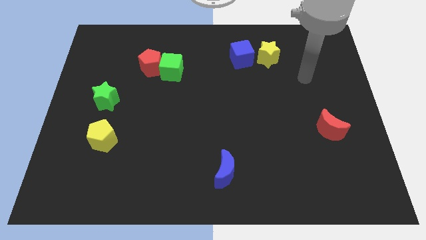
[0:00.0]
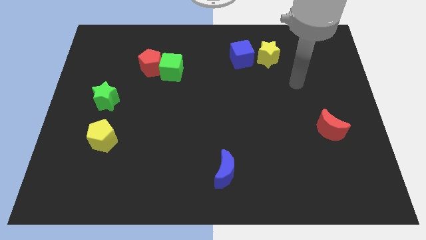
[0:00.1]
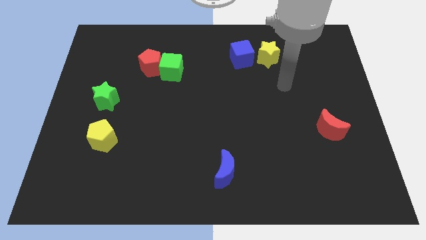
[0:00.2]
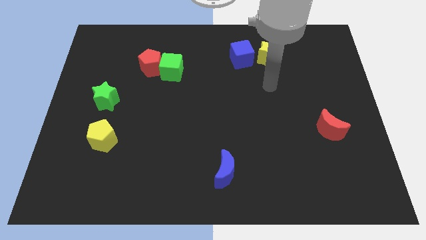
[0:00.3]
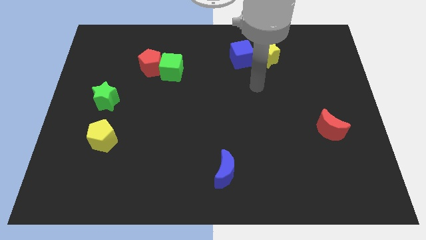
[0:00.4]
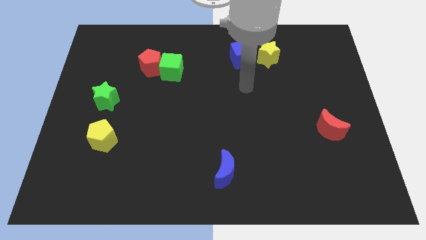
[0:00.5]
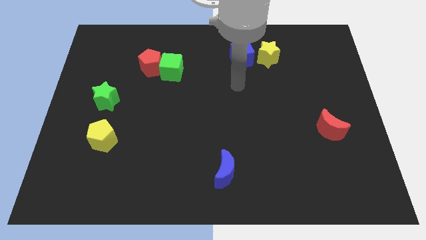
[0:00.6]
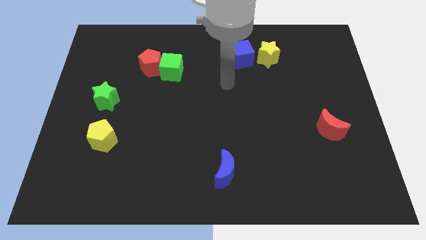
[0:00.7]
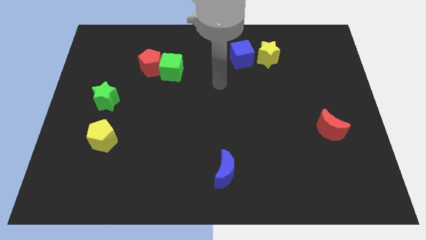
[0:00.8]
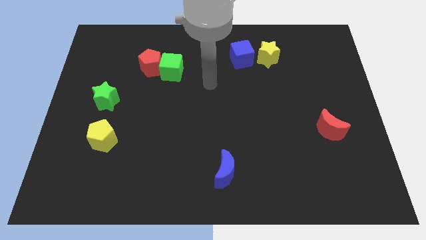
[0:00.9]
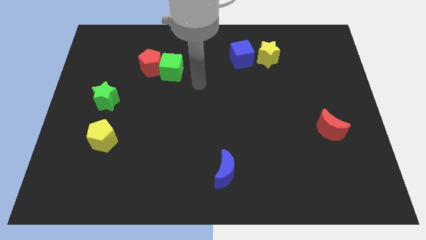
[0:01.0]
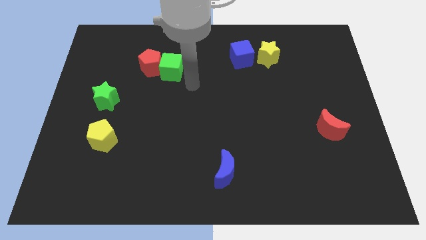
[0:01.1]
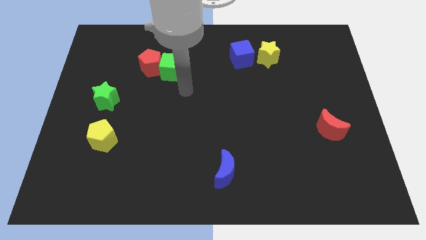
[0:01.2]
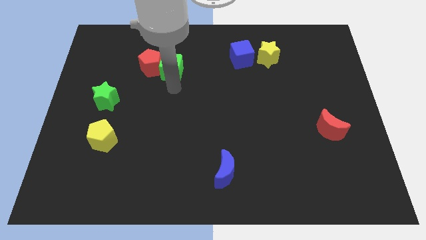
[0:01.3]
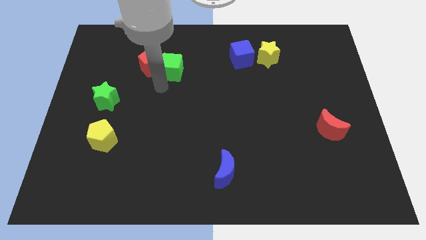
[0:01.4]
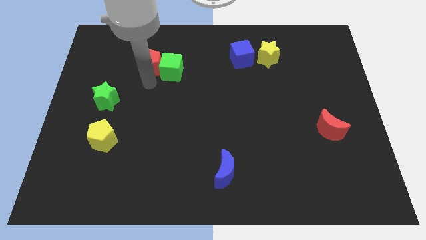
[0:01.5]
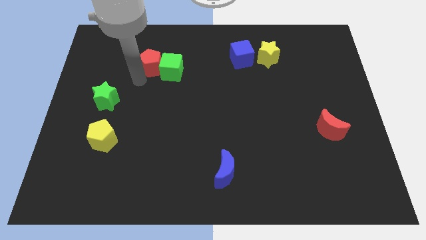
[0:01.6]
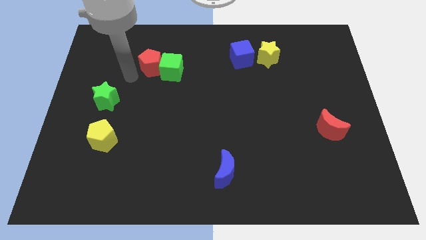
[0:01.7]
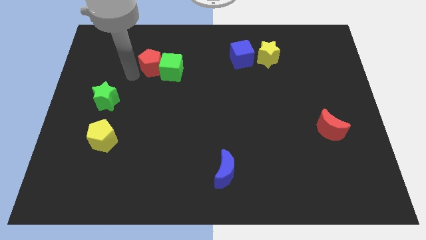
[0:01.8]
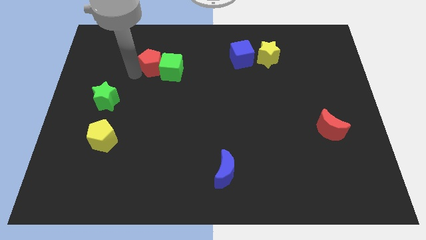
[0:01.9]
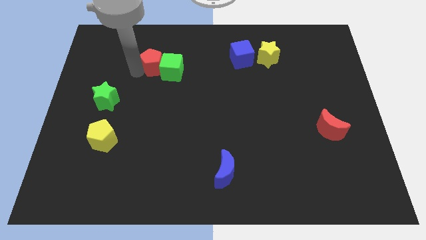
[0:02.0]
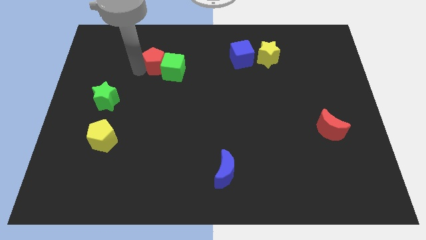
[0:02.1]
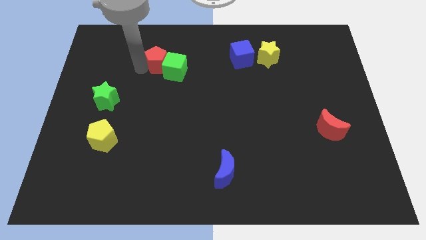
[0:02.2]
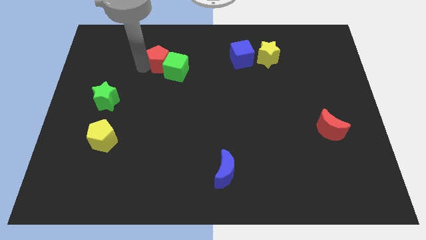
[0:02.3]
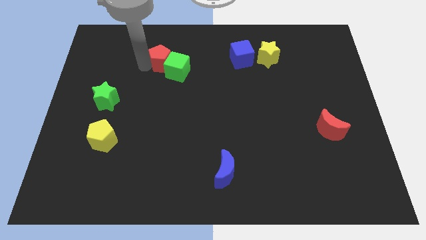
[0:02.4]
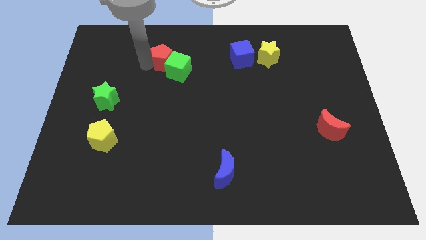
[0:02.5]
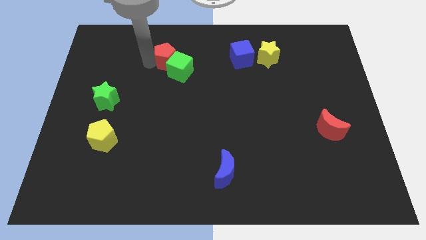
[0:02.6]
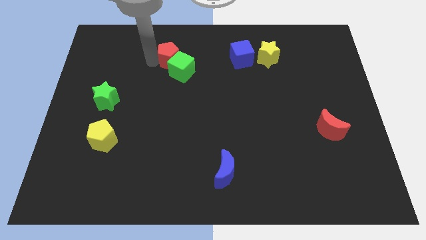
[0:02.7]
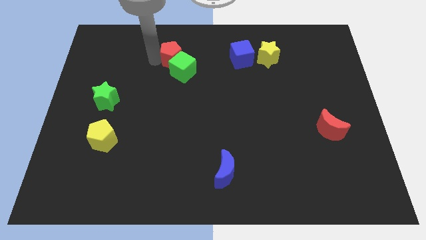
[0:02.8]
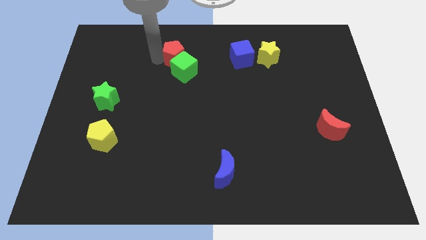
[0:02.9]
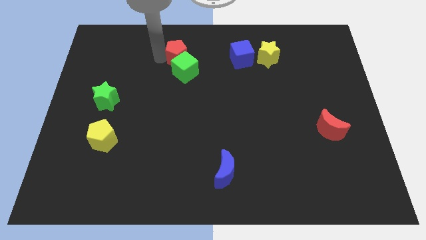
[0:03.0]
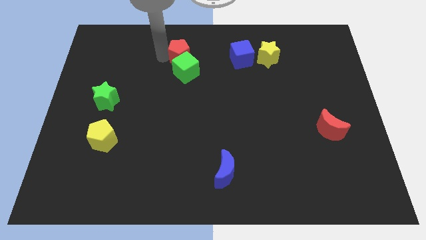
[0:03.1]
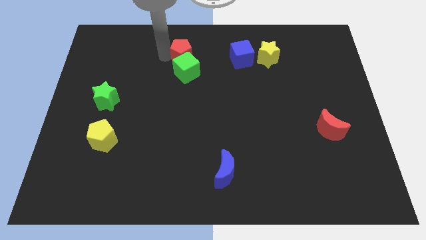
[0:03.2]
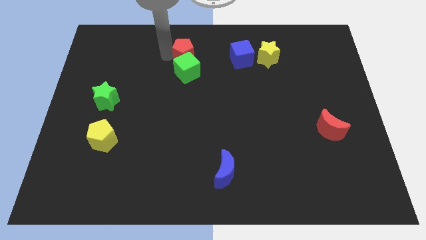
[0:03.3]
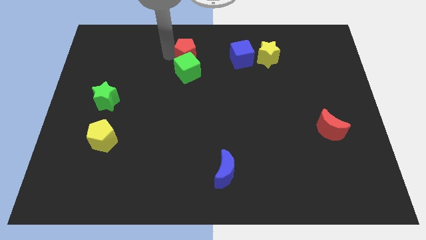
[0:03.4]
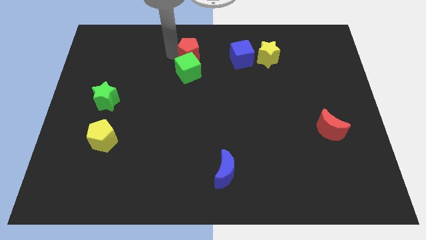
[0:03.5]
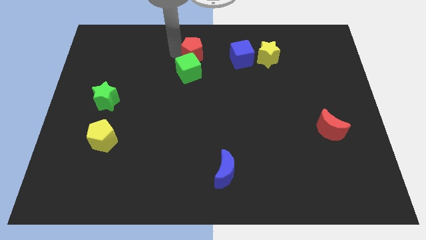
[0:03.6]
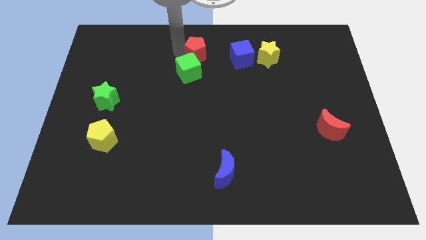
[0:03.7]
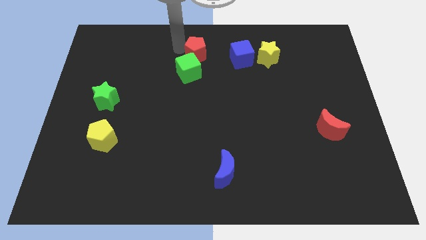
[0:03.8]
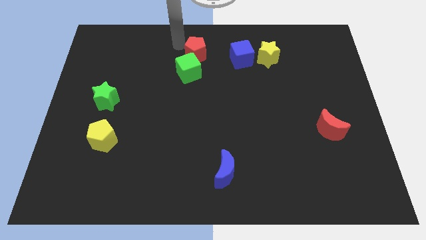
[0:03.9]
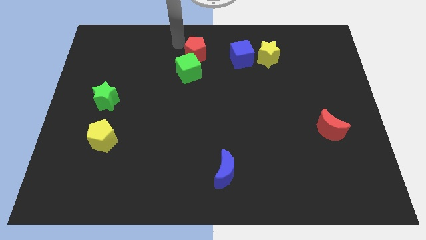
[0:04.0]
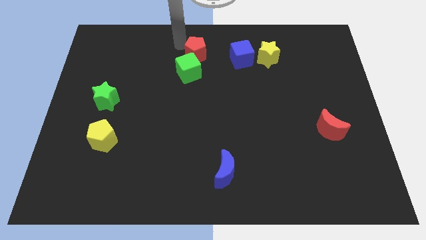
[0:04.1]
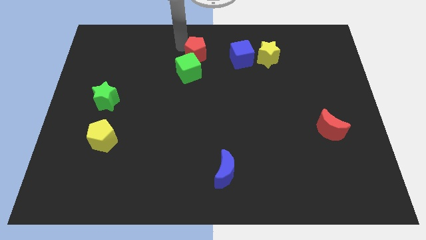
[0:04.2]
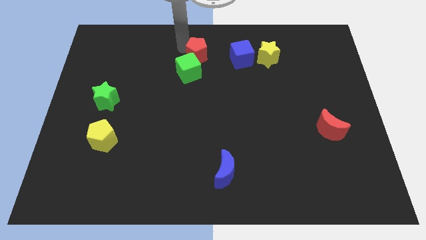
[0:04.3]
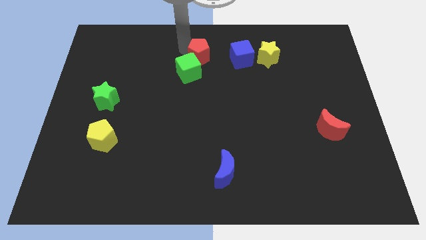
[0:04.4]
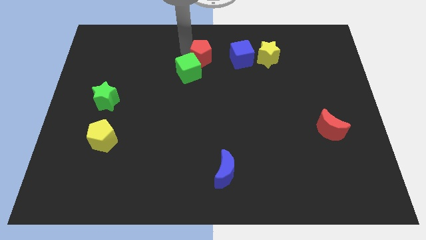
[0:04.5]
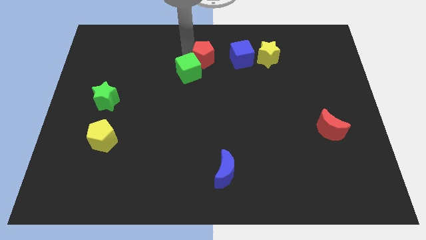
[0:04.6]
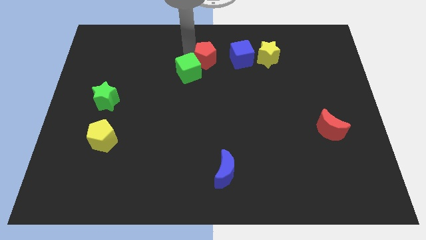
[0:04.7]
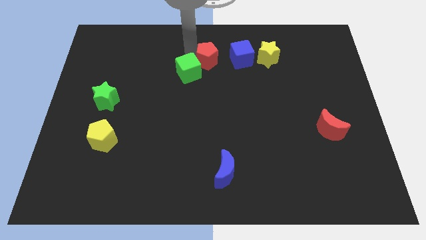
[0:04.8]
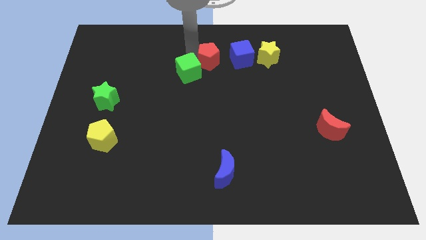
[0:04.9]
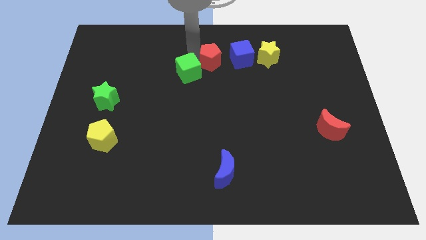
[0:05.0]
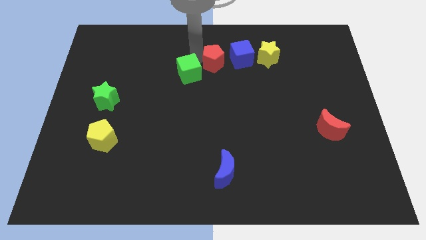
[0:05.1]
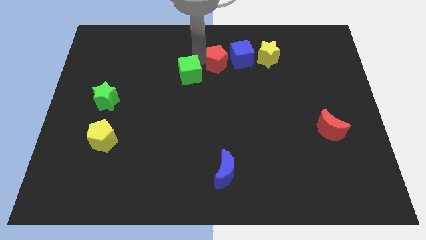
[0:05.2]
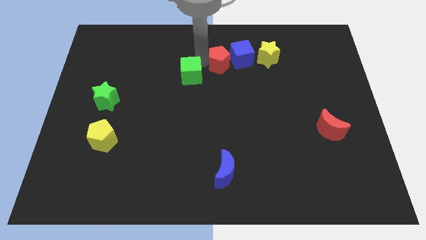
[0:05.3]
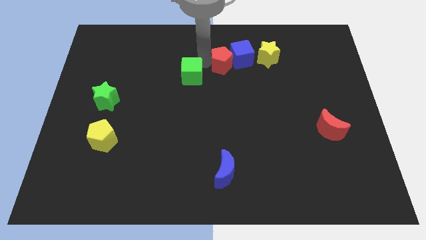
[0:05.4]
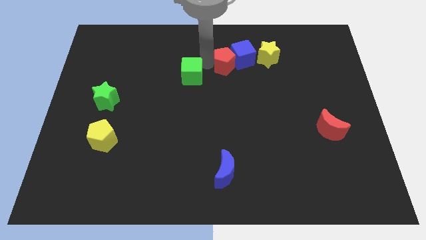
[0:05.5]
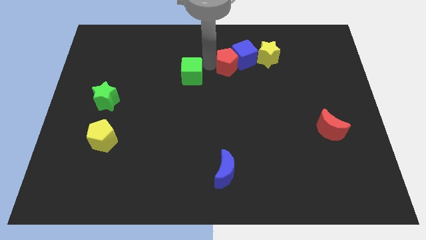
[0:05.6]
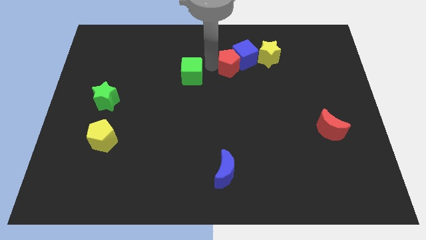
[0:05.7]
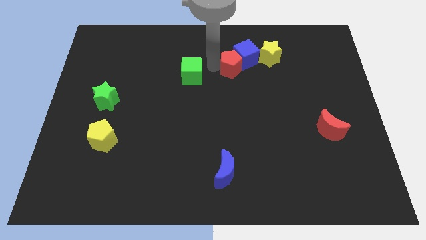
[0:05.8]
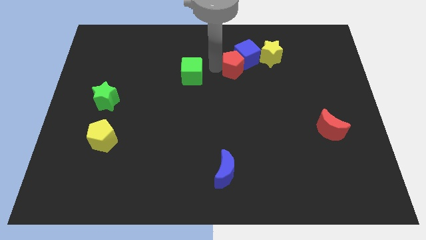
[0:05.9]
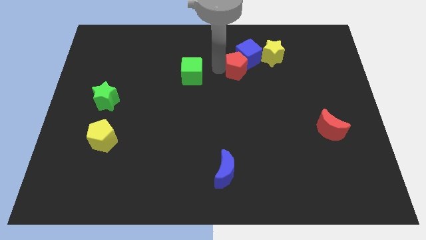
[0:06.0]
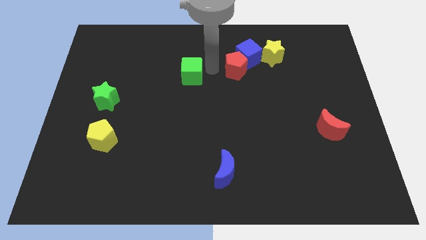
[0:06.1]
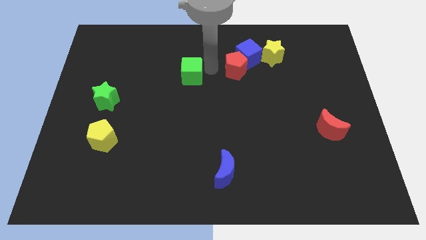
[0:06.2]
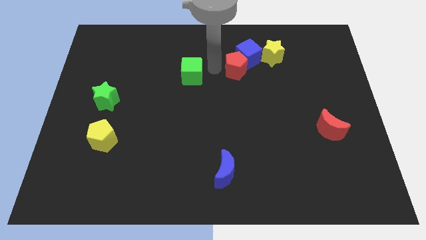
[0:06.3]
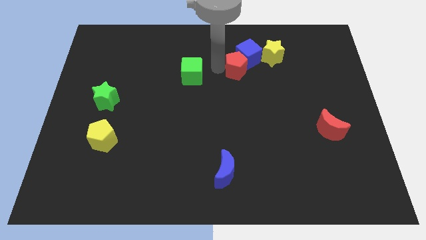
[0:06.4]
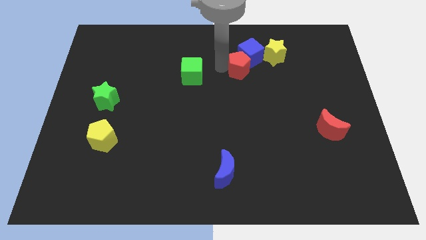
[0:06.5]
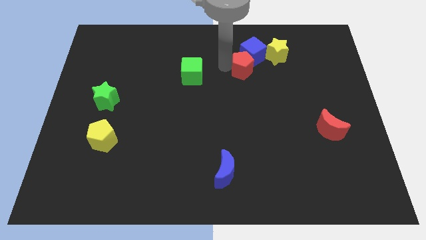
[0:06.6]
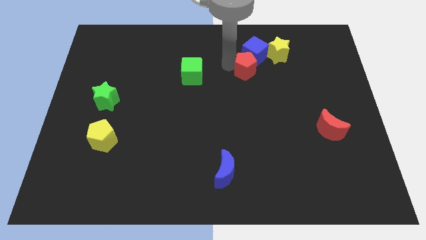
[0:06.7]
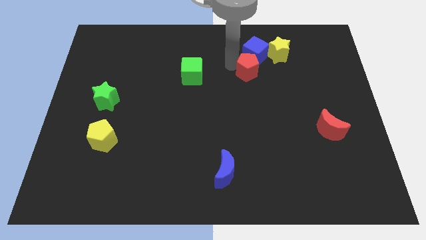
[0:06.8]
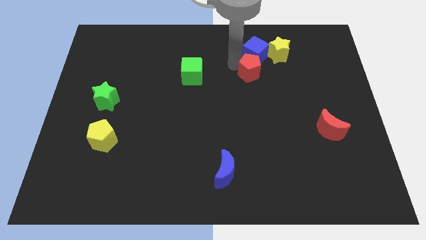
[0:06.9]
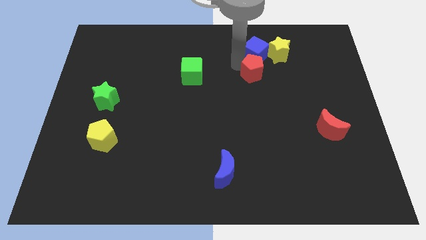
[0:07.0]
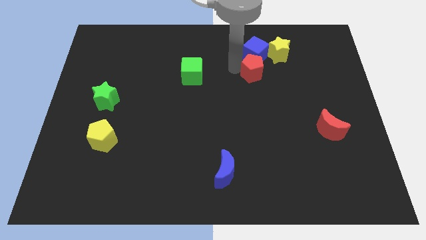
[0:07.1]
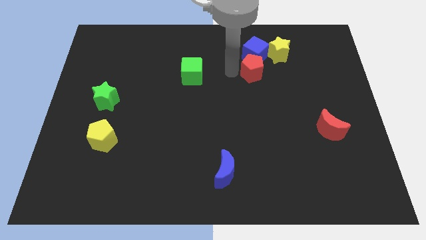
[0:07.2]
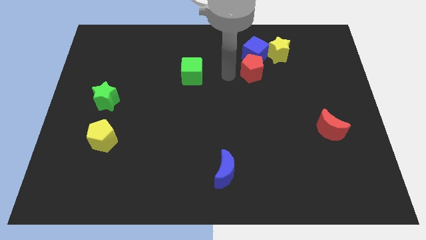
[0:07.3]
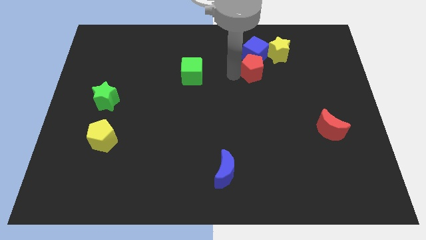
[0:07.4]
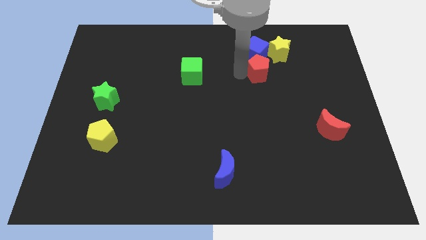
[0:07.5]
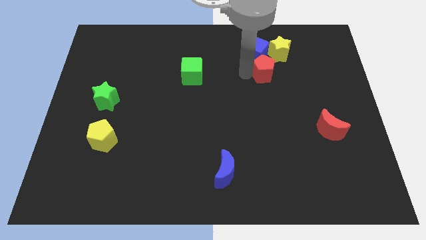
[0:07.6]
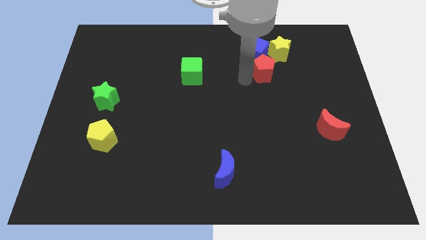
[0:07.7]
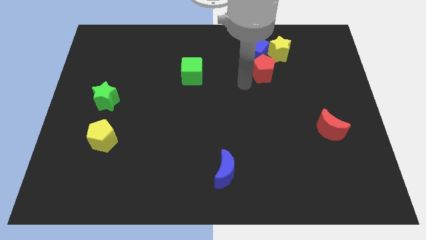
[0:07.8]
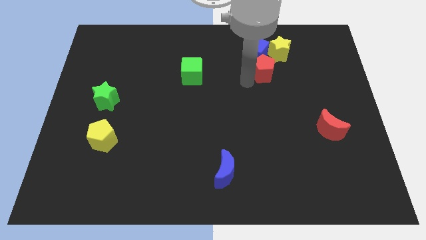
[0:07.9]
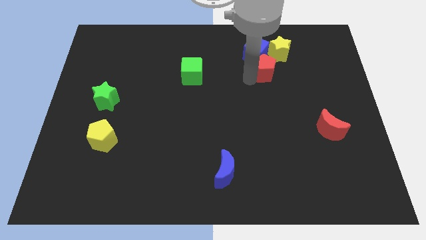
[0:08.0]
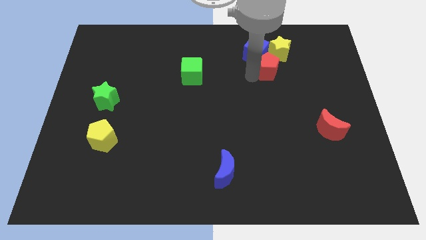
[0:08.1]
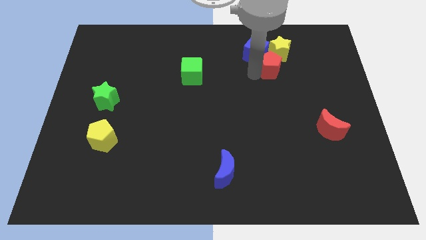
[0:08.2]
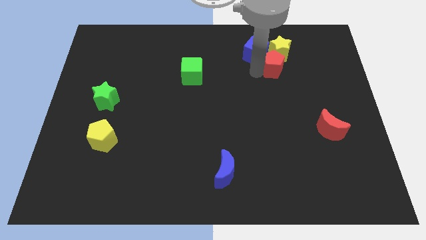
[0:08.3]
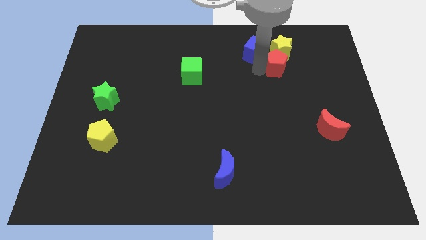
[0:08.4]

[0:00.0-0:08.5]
slide the red pentagon just right of the blue cube
